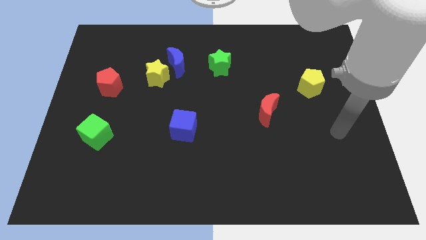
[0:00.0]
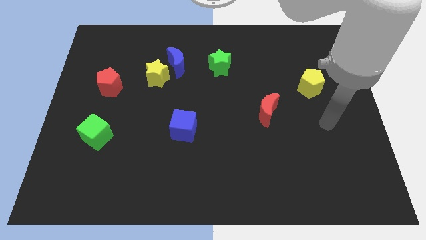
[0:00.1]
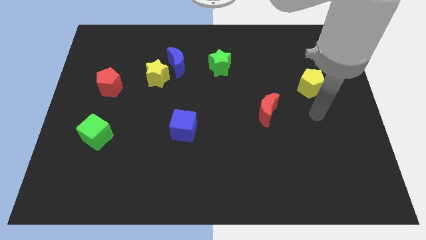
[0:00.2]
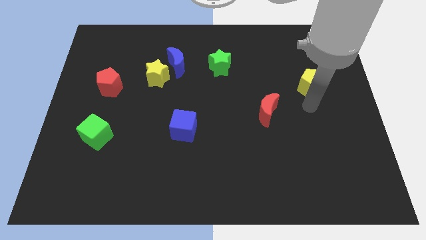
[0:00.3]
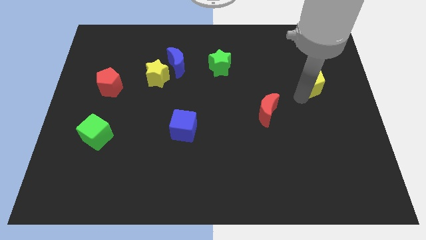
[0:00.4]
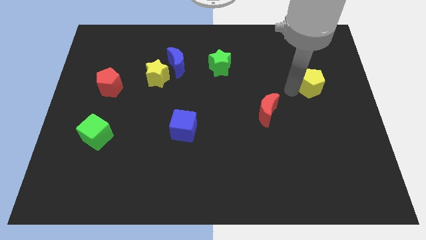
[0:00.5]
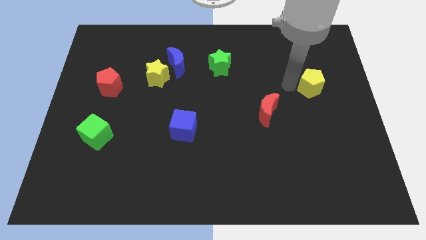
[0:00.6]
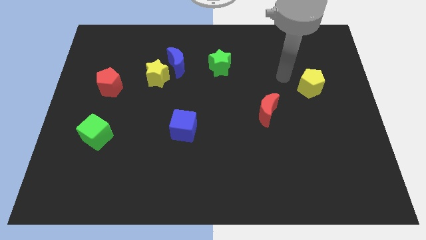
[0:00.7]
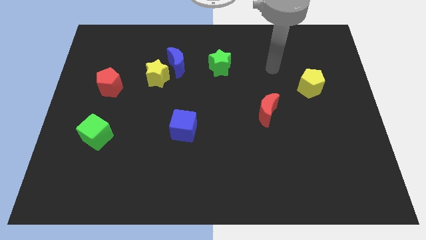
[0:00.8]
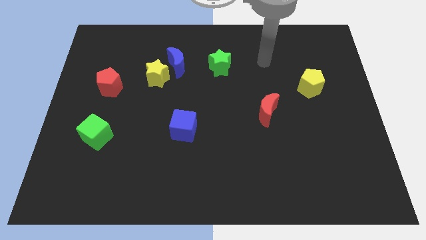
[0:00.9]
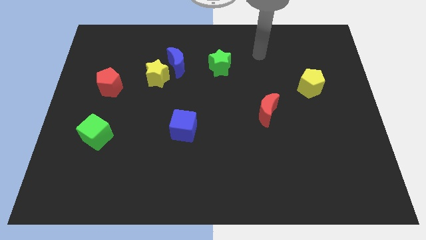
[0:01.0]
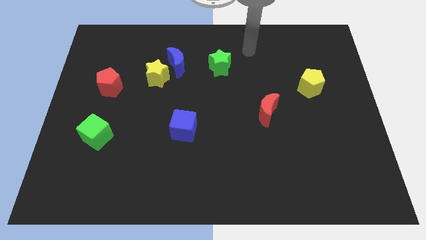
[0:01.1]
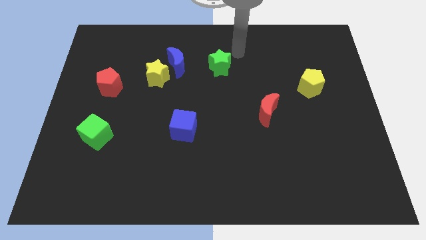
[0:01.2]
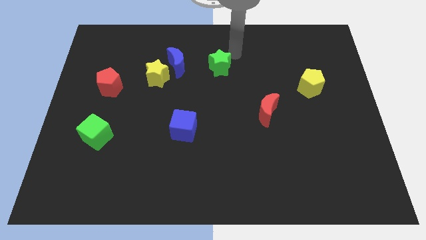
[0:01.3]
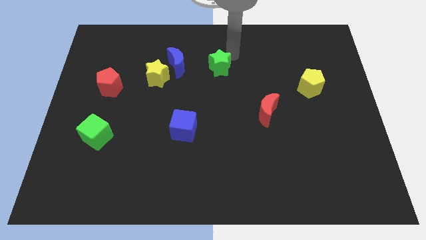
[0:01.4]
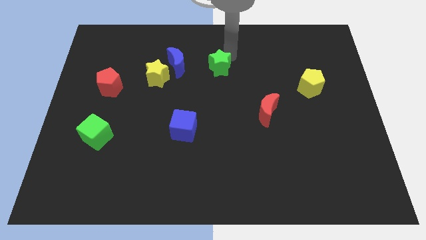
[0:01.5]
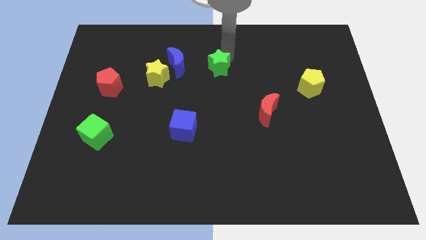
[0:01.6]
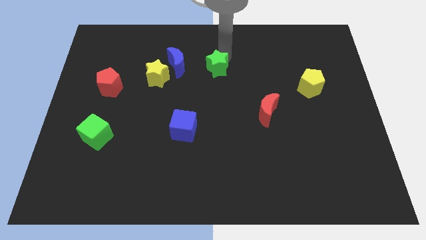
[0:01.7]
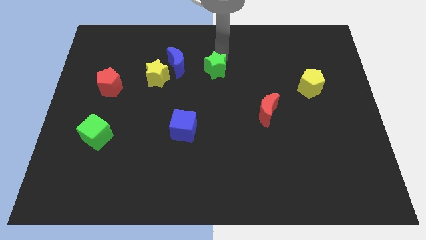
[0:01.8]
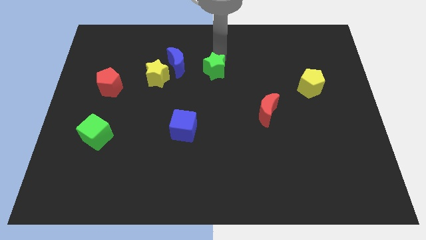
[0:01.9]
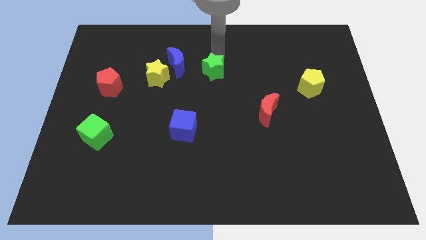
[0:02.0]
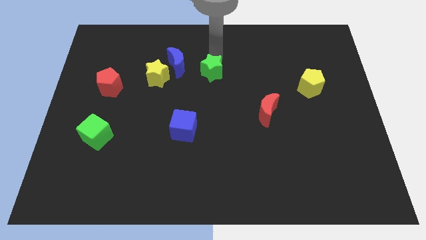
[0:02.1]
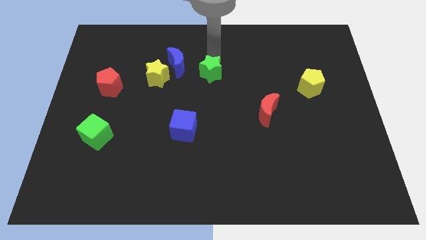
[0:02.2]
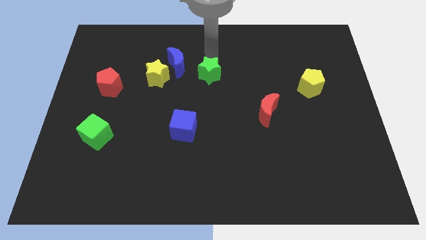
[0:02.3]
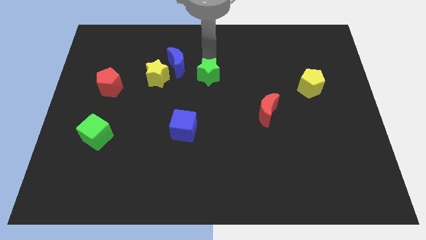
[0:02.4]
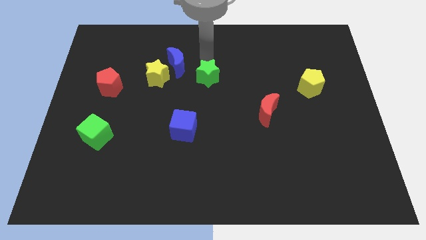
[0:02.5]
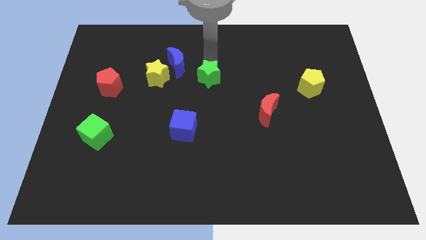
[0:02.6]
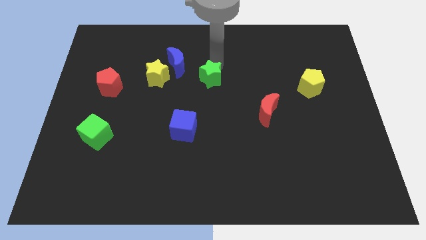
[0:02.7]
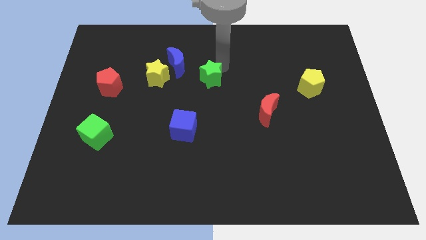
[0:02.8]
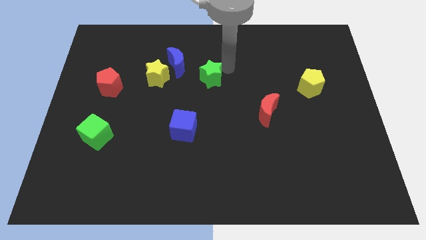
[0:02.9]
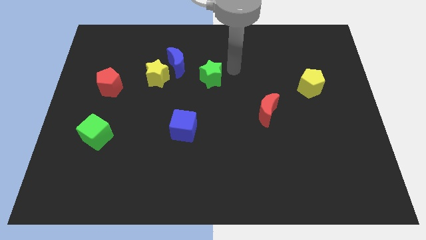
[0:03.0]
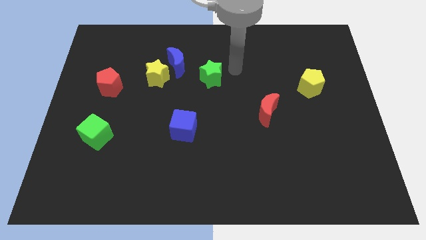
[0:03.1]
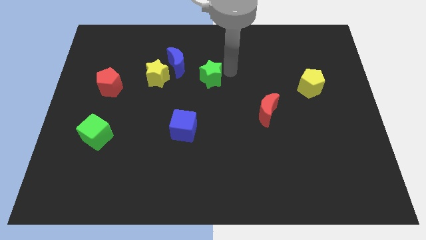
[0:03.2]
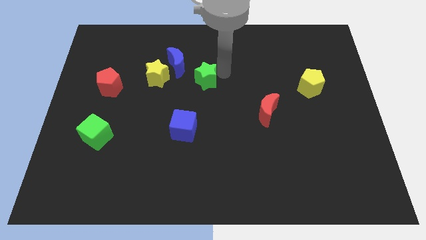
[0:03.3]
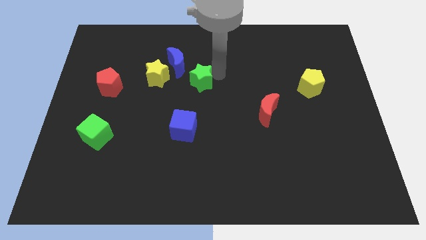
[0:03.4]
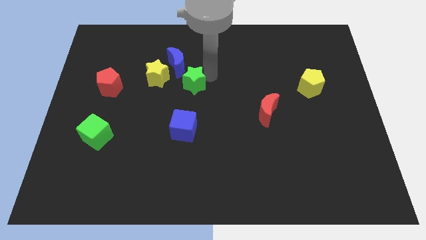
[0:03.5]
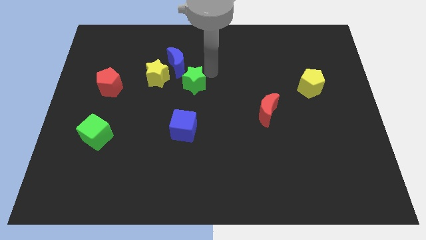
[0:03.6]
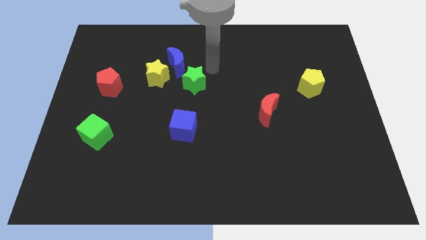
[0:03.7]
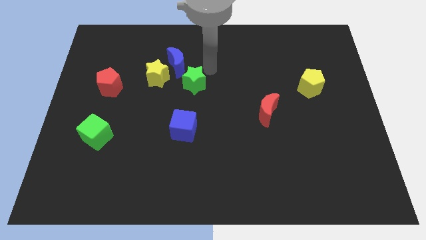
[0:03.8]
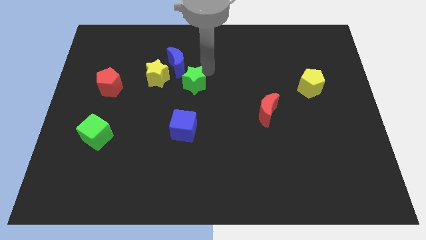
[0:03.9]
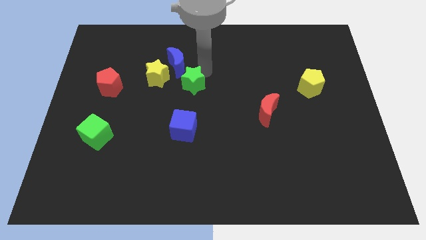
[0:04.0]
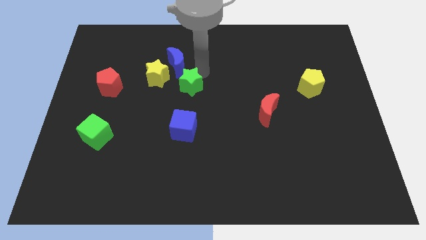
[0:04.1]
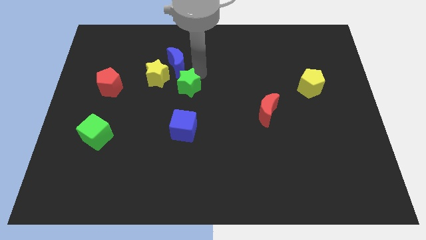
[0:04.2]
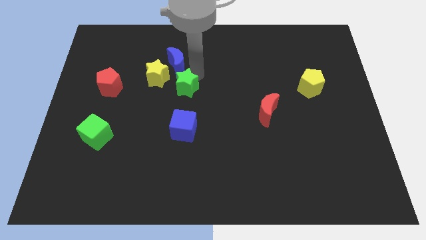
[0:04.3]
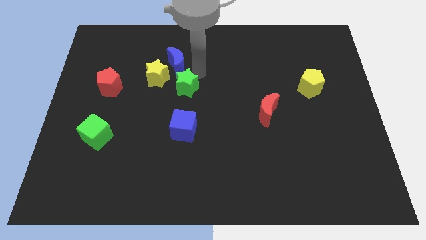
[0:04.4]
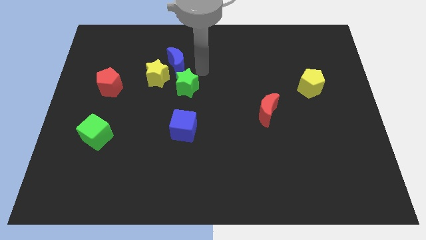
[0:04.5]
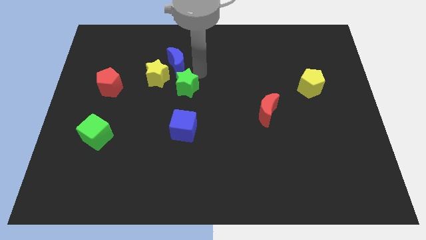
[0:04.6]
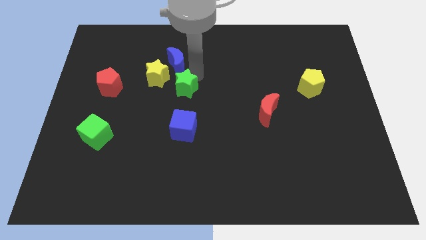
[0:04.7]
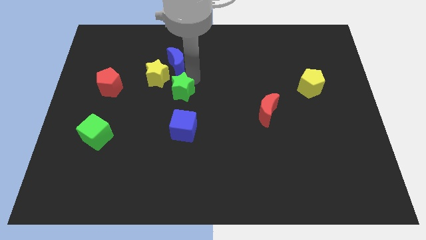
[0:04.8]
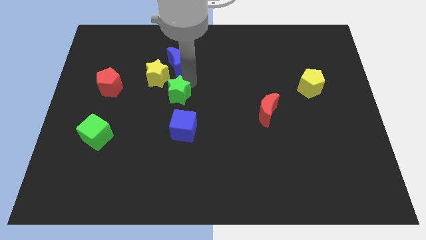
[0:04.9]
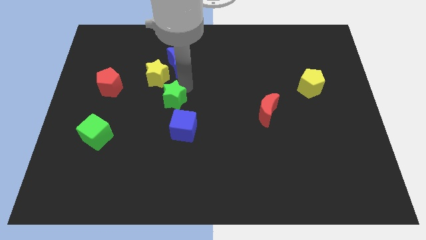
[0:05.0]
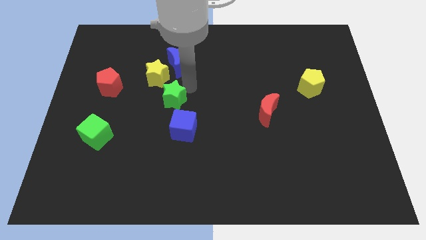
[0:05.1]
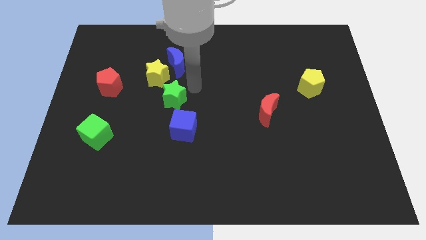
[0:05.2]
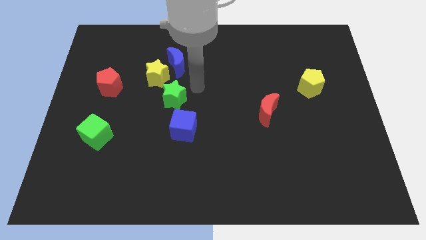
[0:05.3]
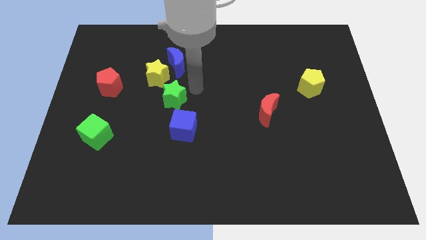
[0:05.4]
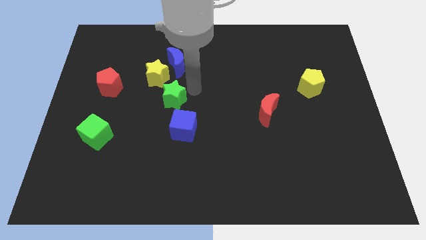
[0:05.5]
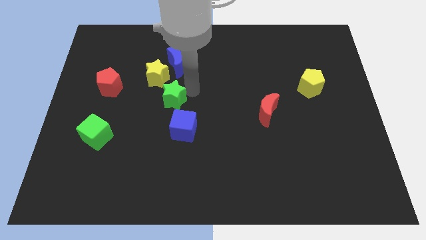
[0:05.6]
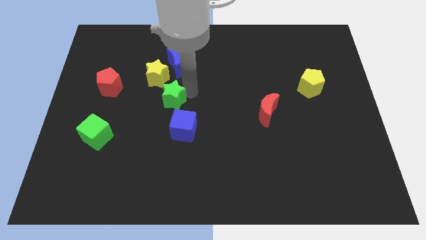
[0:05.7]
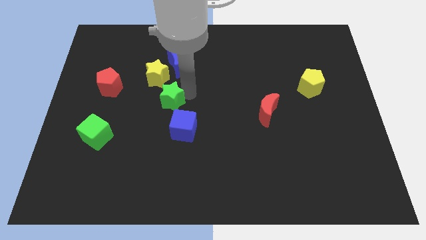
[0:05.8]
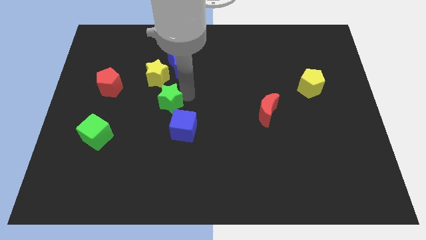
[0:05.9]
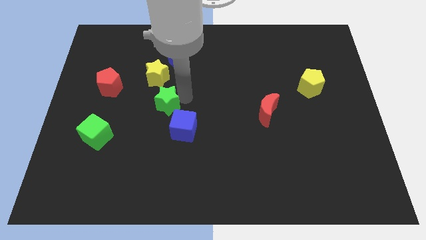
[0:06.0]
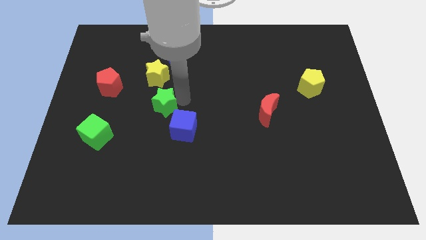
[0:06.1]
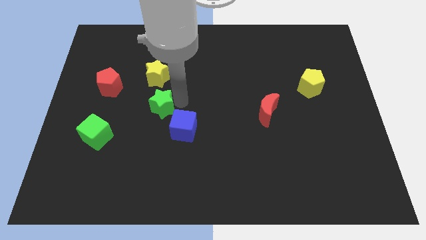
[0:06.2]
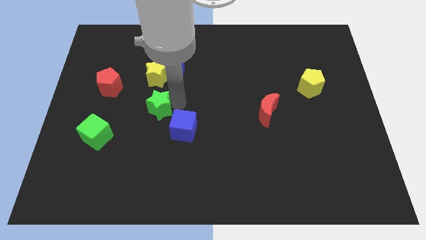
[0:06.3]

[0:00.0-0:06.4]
push the green star downwards and left

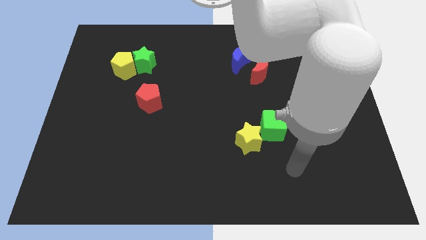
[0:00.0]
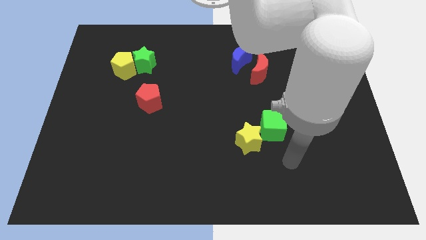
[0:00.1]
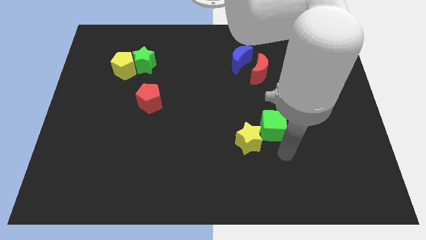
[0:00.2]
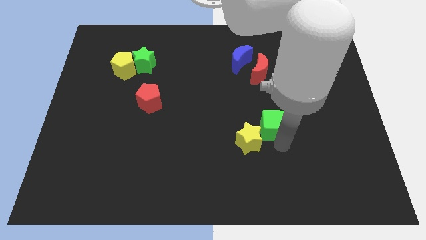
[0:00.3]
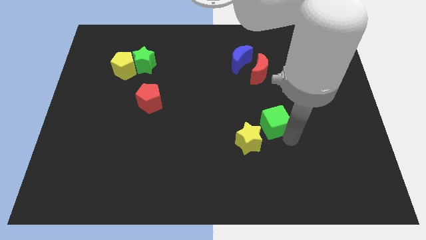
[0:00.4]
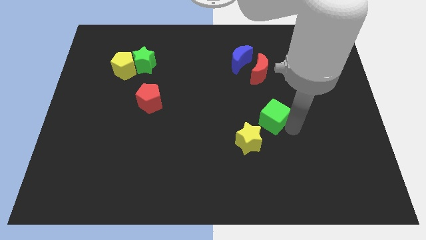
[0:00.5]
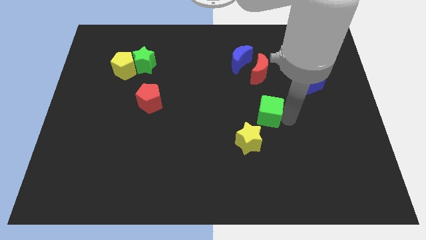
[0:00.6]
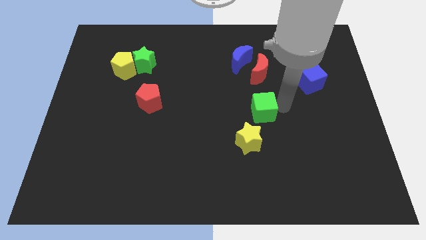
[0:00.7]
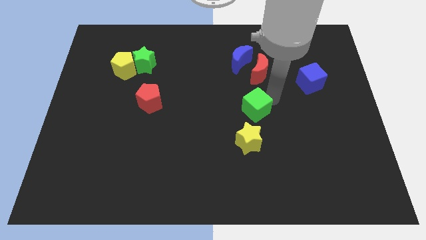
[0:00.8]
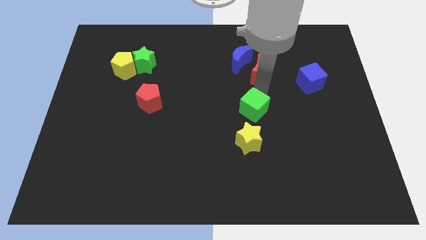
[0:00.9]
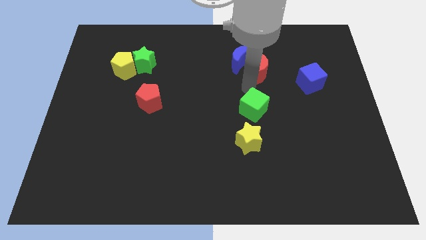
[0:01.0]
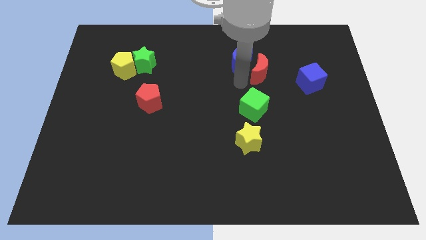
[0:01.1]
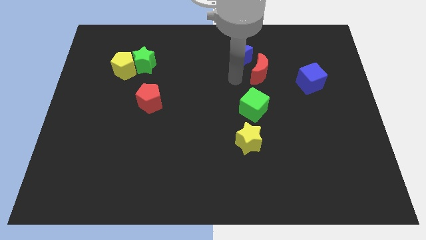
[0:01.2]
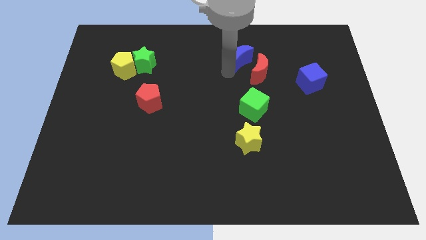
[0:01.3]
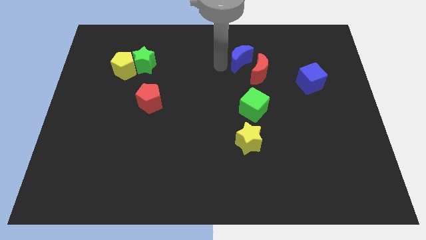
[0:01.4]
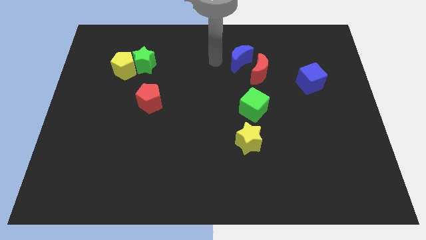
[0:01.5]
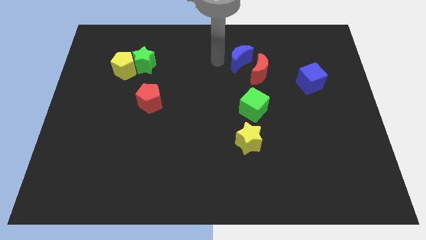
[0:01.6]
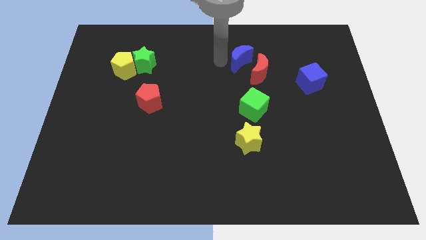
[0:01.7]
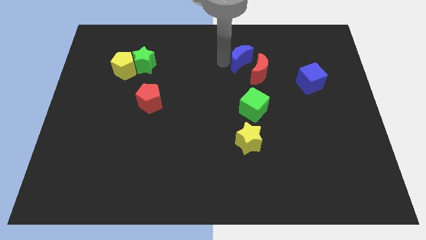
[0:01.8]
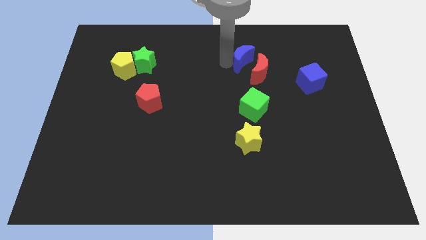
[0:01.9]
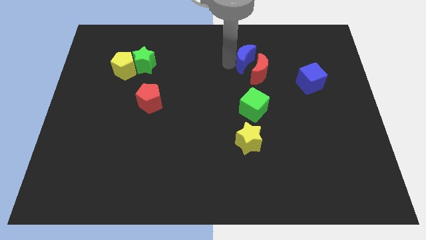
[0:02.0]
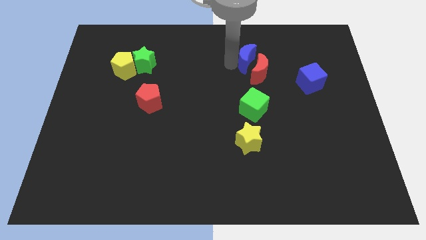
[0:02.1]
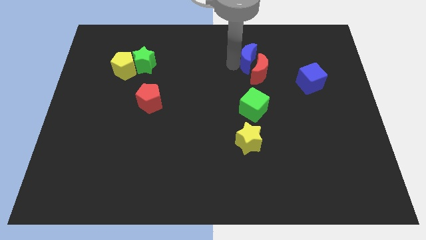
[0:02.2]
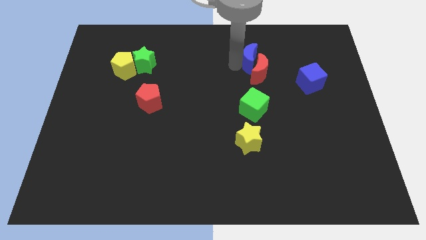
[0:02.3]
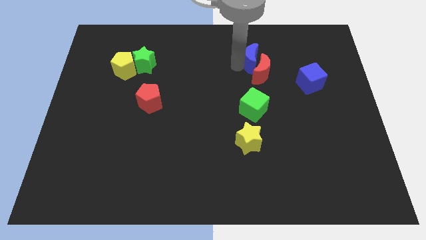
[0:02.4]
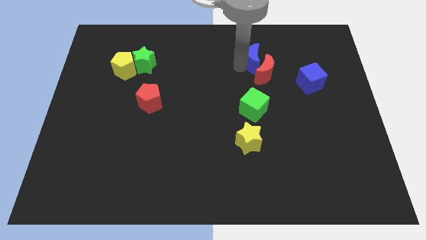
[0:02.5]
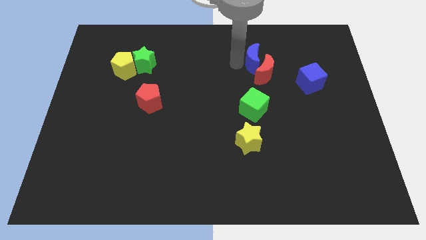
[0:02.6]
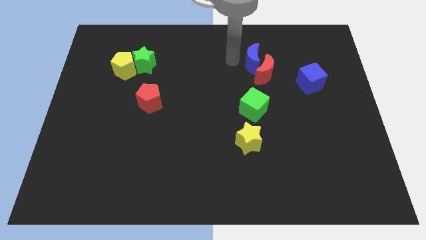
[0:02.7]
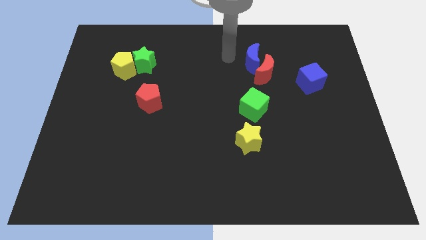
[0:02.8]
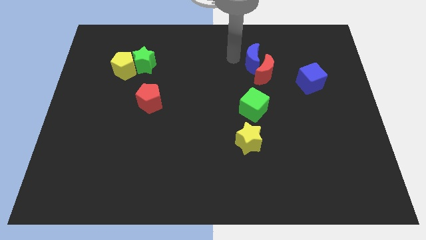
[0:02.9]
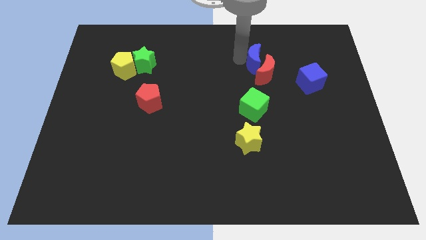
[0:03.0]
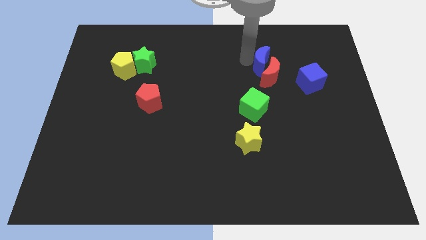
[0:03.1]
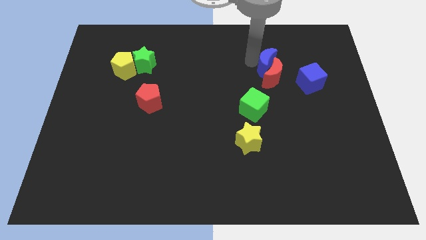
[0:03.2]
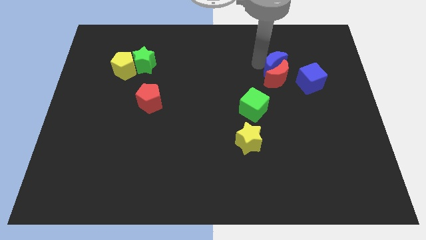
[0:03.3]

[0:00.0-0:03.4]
slightly move the blue moon to the right
